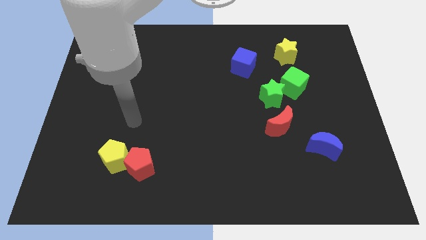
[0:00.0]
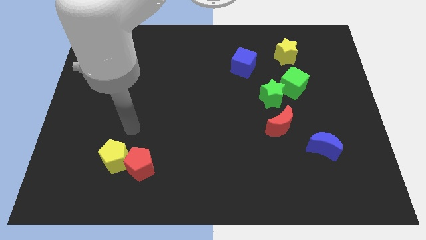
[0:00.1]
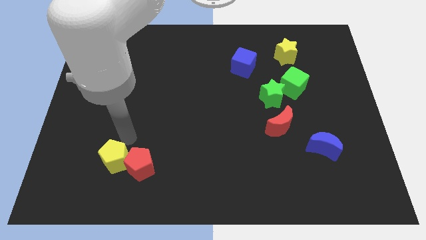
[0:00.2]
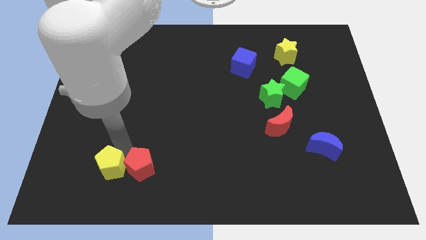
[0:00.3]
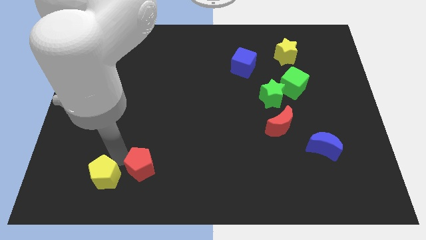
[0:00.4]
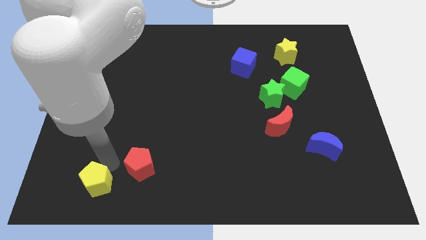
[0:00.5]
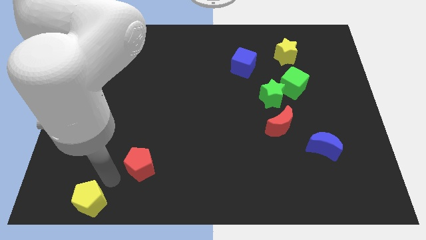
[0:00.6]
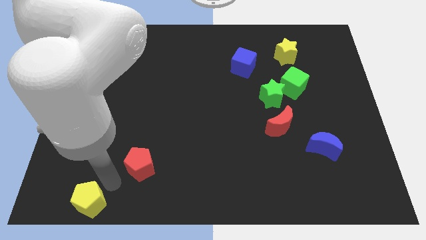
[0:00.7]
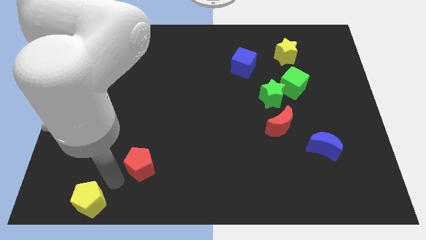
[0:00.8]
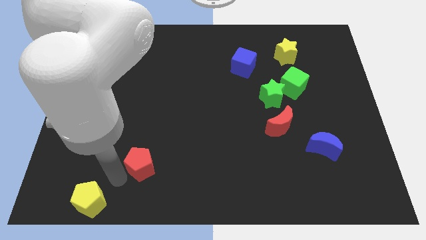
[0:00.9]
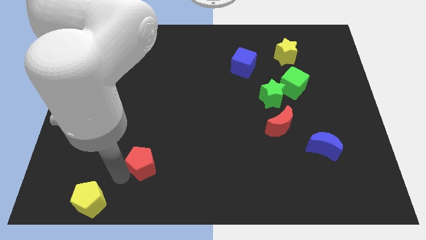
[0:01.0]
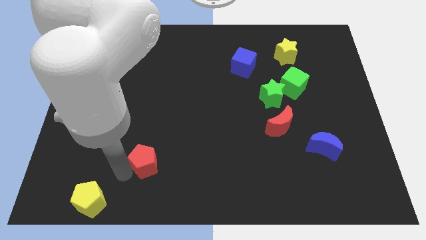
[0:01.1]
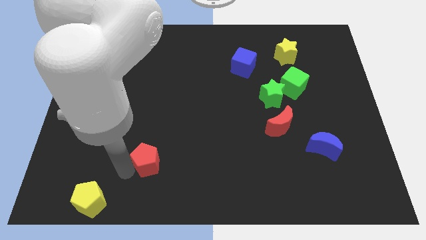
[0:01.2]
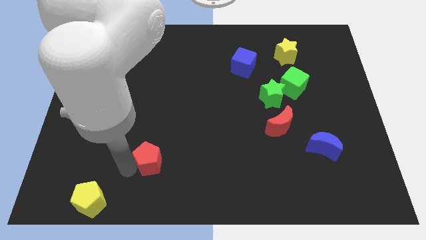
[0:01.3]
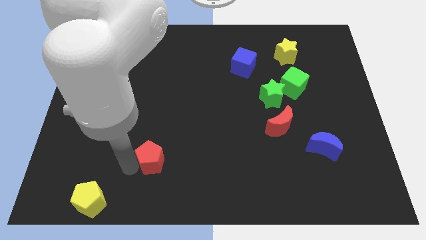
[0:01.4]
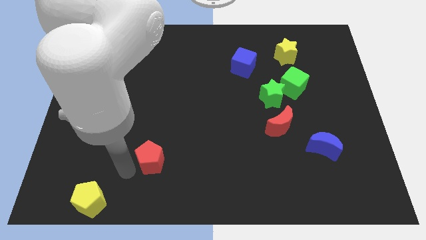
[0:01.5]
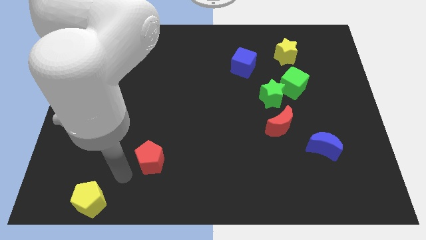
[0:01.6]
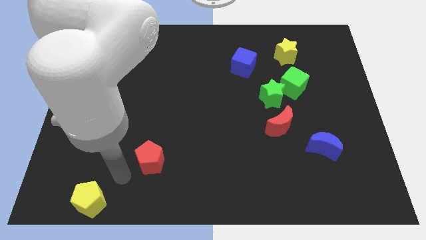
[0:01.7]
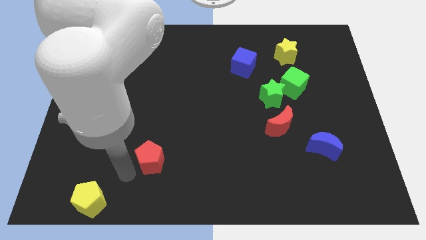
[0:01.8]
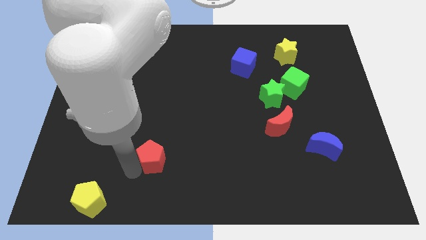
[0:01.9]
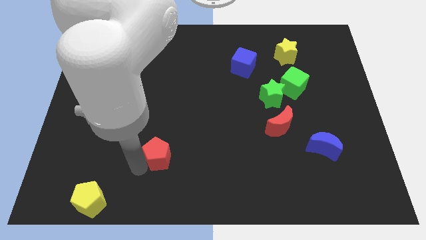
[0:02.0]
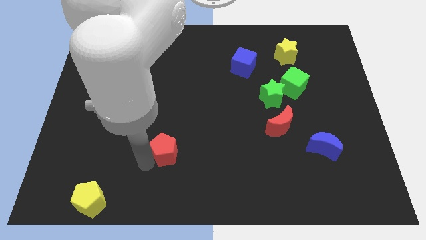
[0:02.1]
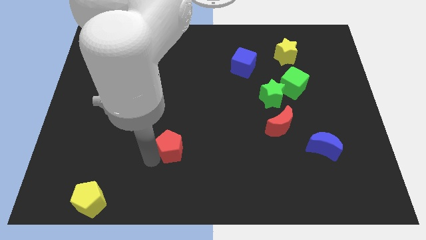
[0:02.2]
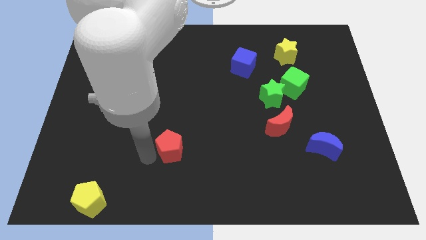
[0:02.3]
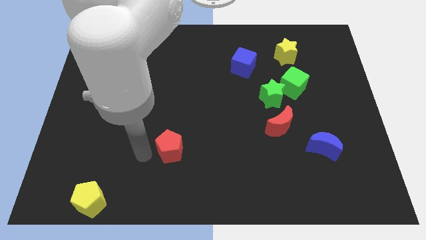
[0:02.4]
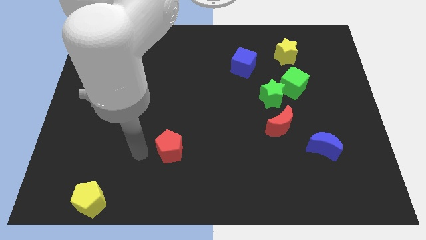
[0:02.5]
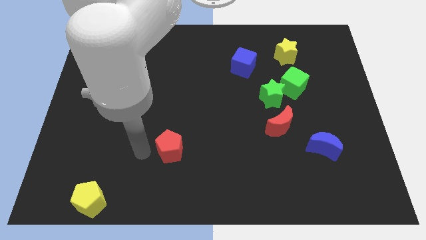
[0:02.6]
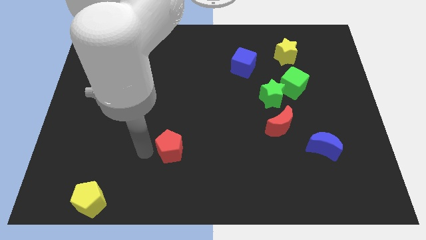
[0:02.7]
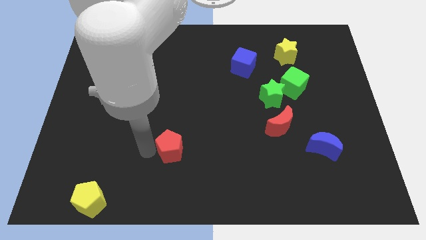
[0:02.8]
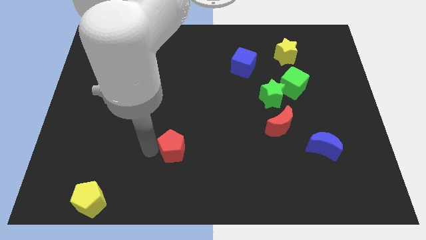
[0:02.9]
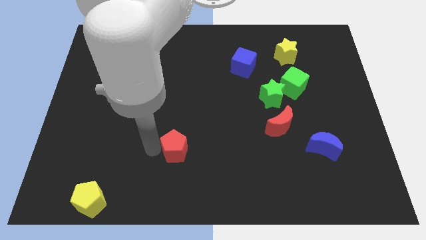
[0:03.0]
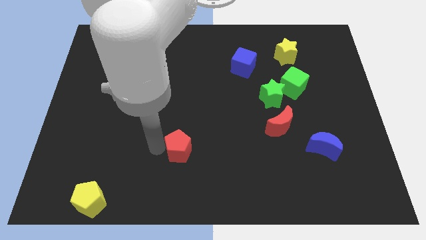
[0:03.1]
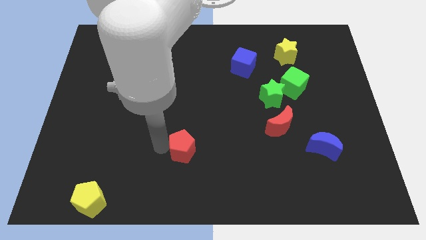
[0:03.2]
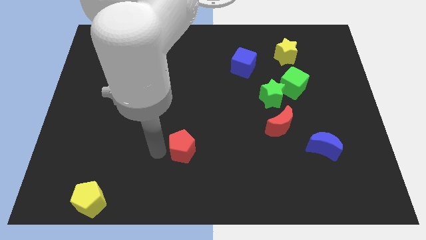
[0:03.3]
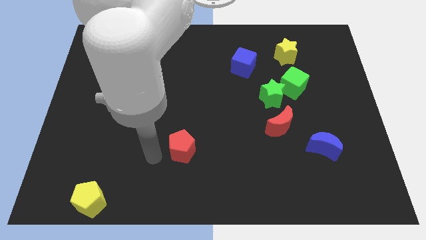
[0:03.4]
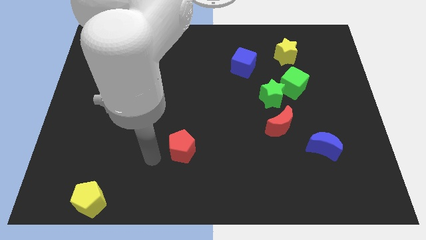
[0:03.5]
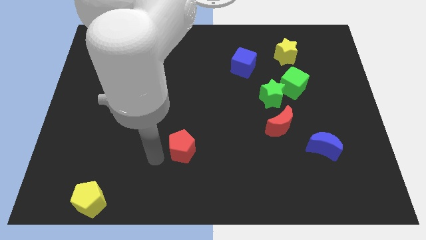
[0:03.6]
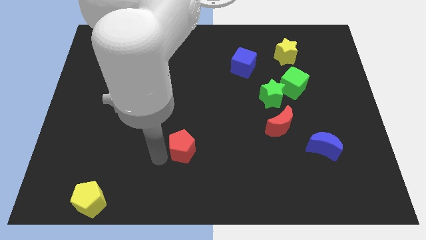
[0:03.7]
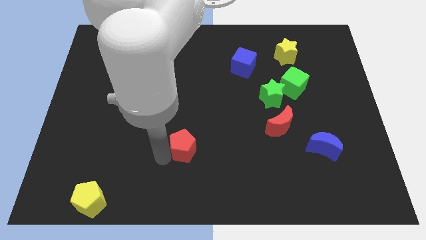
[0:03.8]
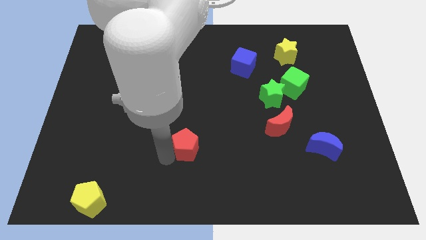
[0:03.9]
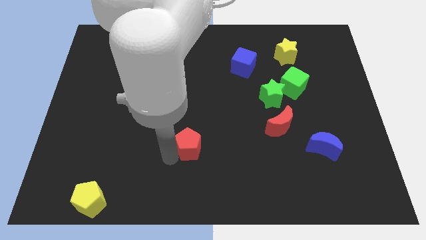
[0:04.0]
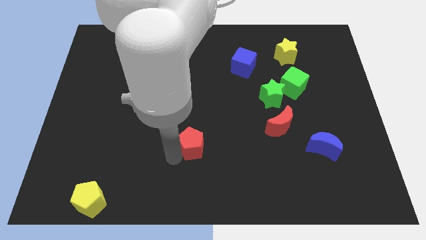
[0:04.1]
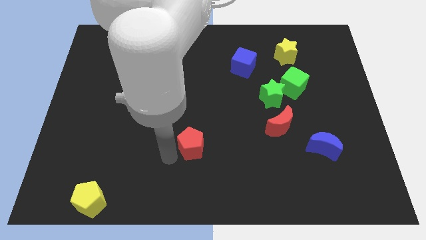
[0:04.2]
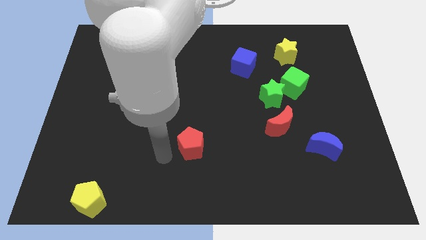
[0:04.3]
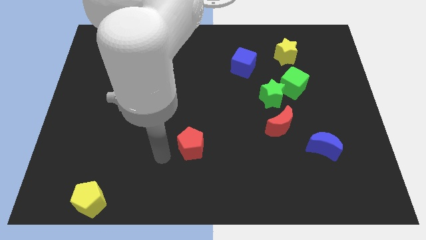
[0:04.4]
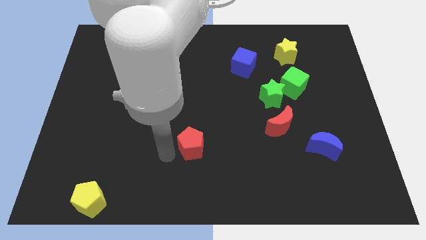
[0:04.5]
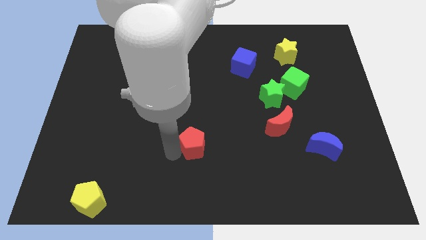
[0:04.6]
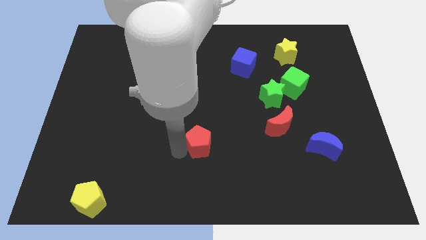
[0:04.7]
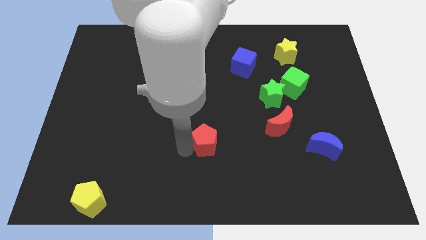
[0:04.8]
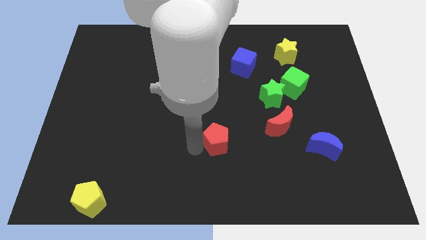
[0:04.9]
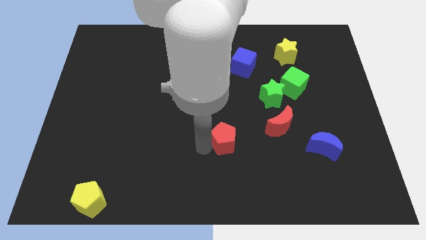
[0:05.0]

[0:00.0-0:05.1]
push the red pentagon to the left of the red moon

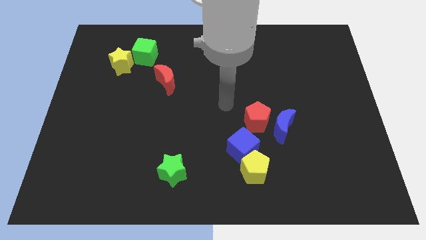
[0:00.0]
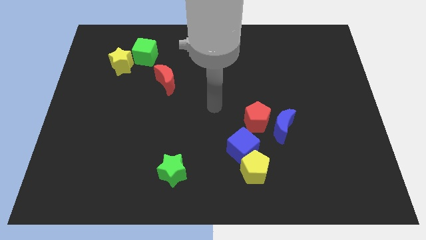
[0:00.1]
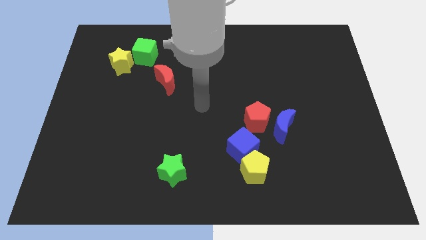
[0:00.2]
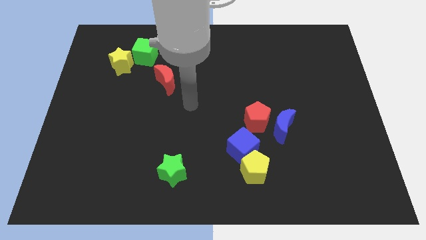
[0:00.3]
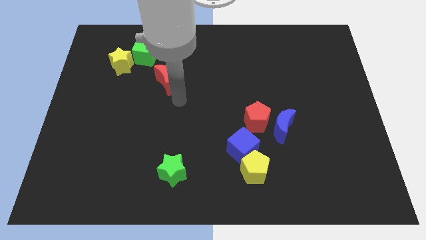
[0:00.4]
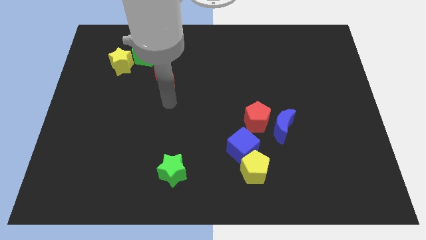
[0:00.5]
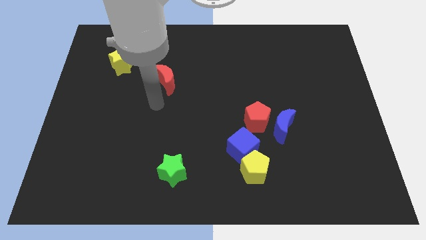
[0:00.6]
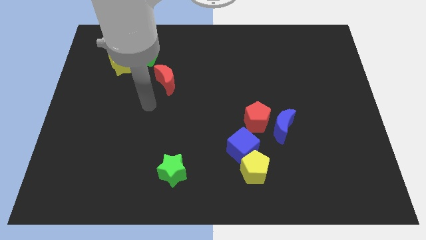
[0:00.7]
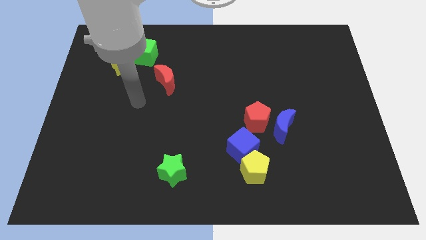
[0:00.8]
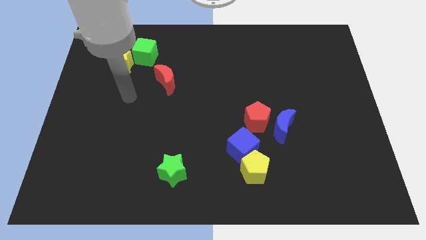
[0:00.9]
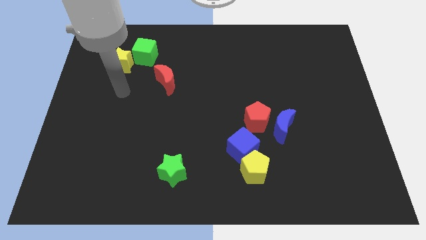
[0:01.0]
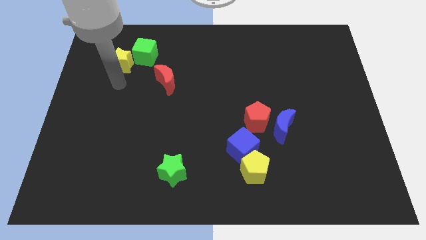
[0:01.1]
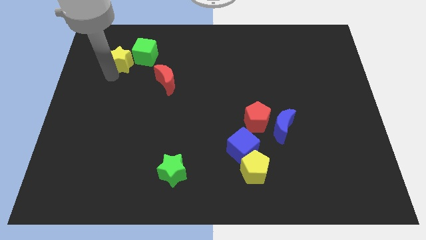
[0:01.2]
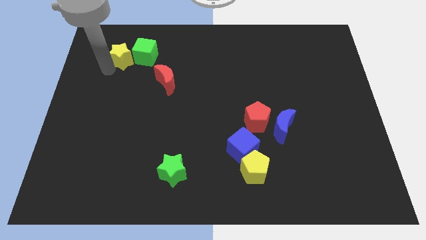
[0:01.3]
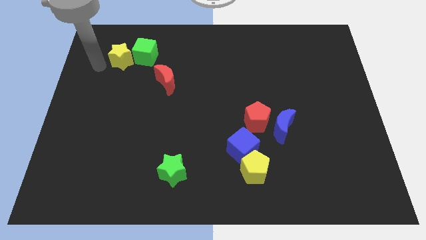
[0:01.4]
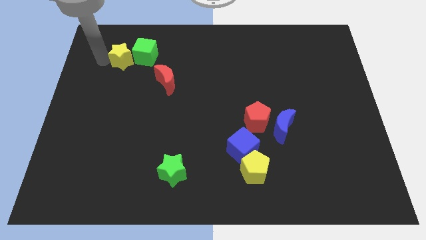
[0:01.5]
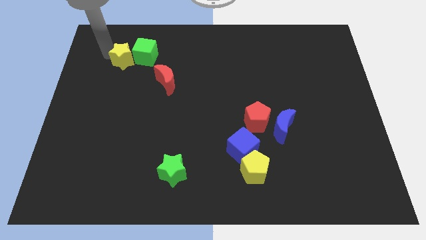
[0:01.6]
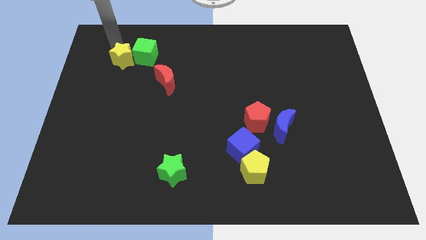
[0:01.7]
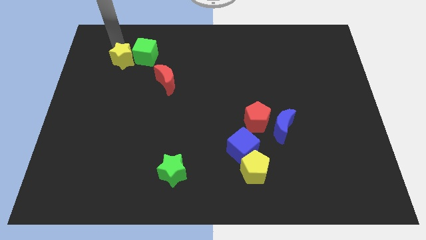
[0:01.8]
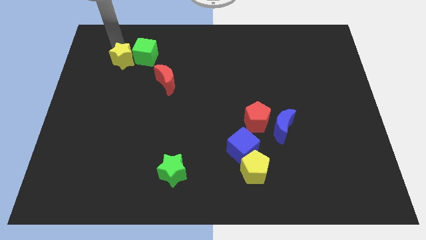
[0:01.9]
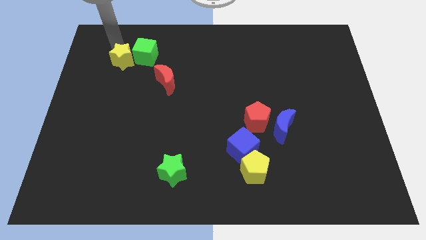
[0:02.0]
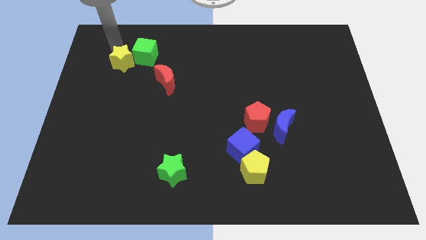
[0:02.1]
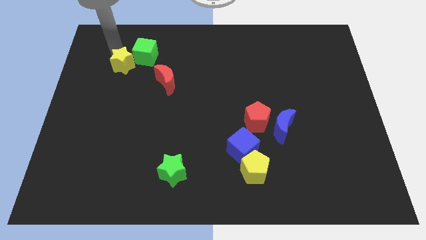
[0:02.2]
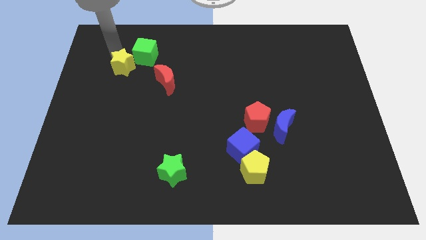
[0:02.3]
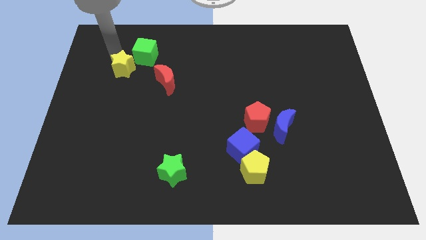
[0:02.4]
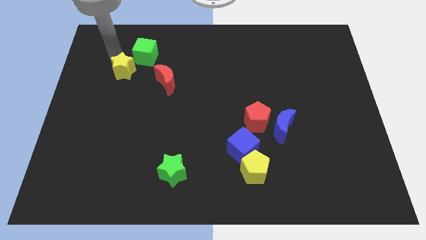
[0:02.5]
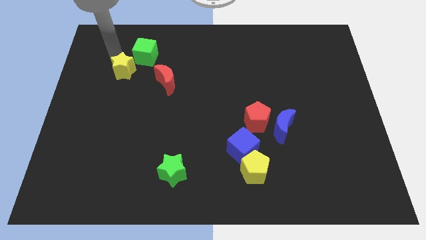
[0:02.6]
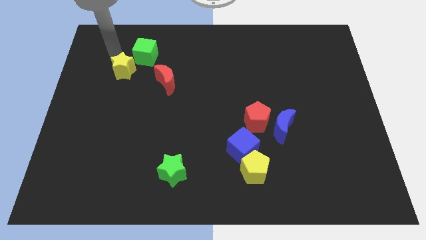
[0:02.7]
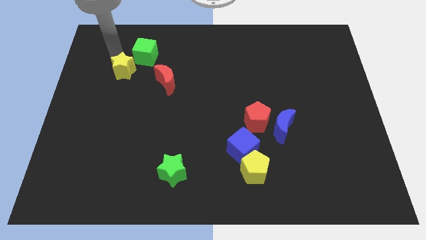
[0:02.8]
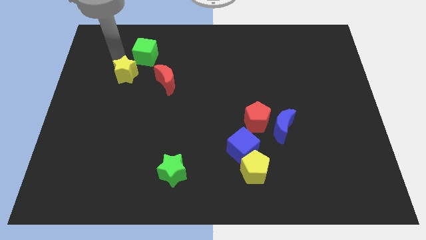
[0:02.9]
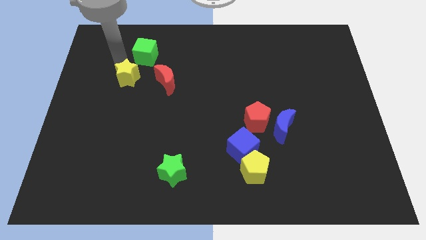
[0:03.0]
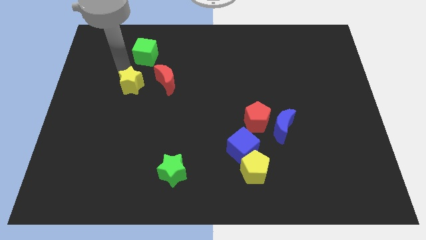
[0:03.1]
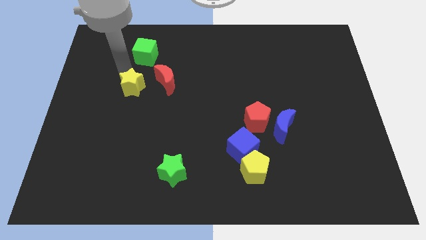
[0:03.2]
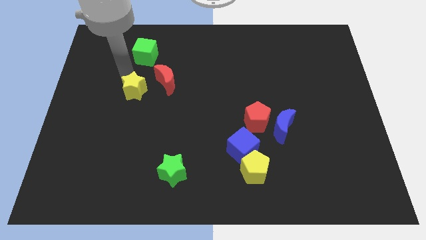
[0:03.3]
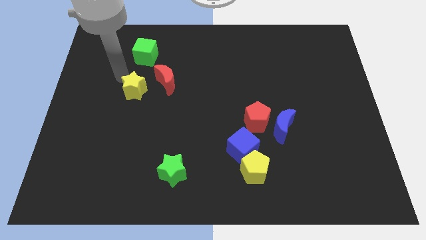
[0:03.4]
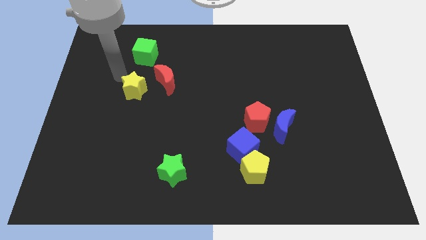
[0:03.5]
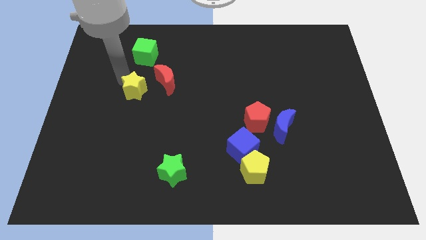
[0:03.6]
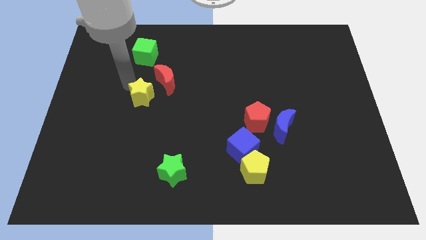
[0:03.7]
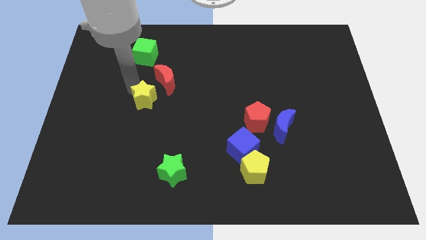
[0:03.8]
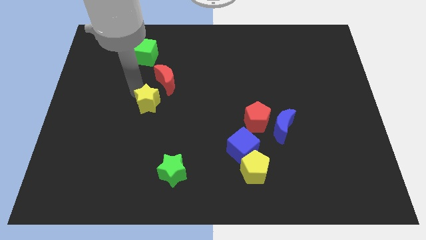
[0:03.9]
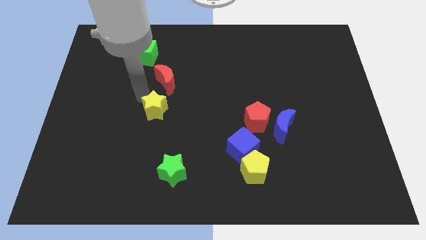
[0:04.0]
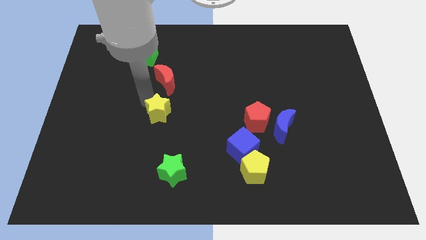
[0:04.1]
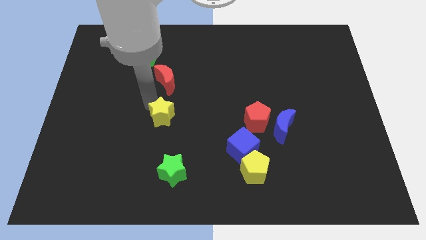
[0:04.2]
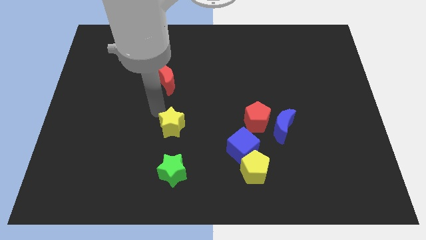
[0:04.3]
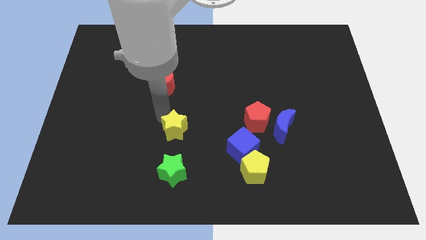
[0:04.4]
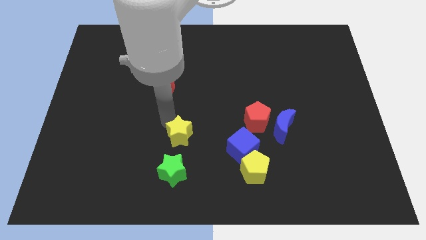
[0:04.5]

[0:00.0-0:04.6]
move the yellow star just left of the blue cube
